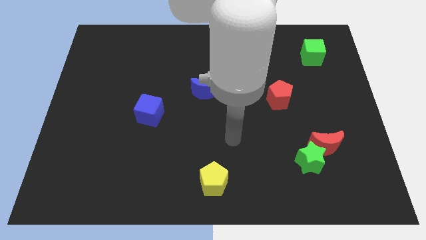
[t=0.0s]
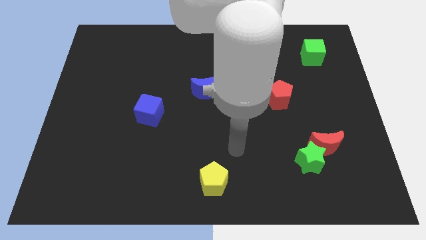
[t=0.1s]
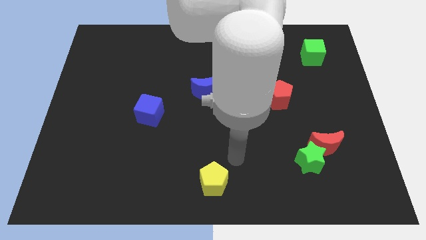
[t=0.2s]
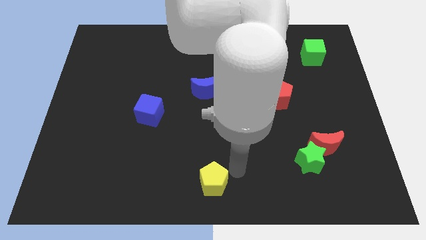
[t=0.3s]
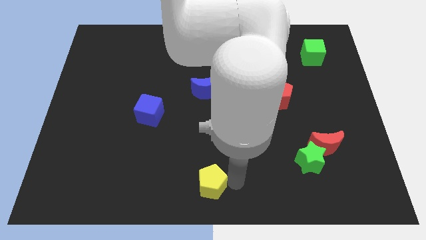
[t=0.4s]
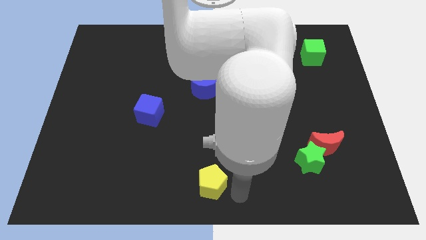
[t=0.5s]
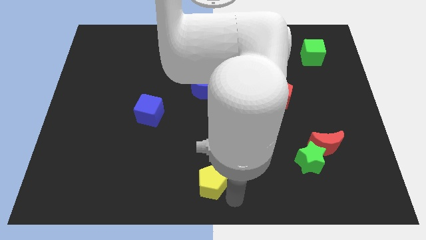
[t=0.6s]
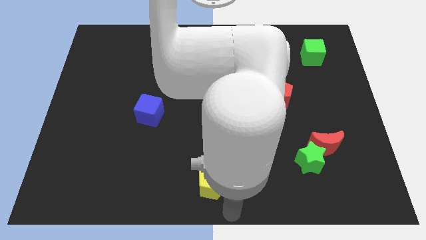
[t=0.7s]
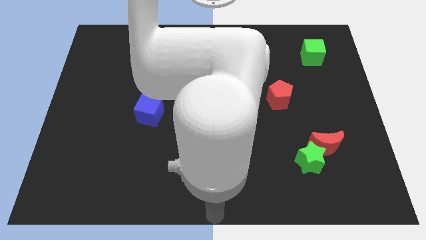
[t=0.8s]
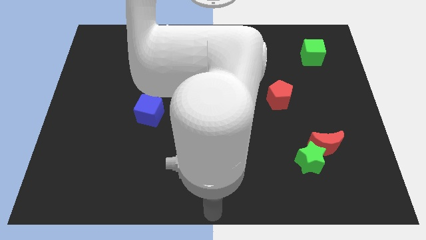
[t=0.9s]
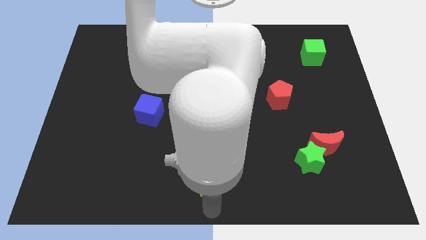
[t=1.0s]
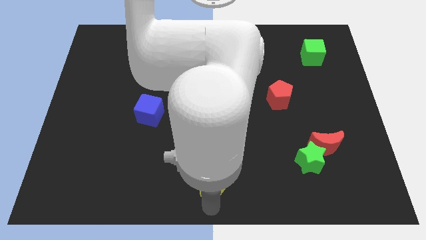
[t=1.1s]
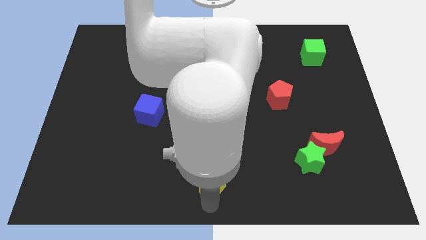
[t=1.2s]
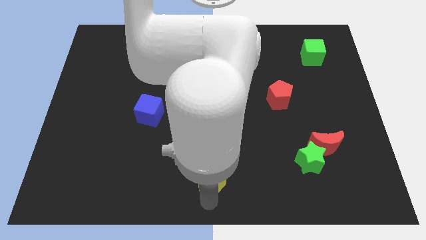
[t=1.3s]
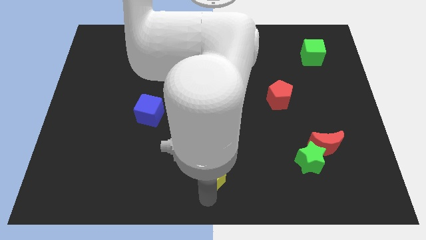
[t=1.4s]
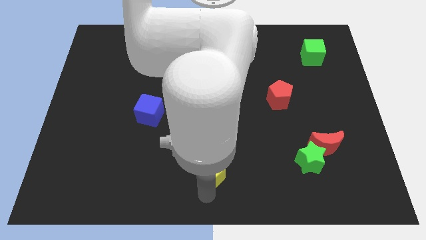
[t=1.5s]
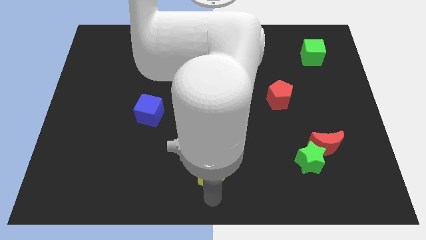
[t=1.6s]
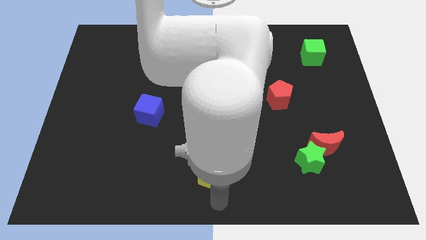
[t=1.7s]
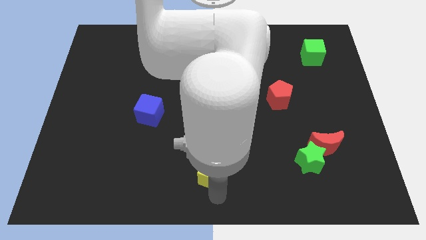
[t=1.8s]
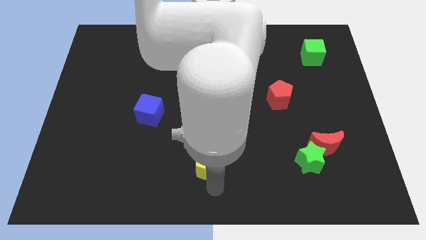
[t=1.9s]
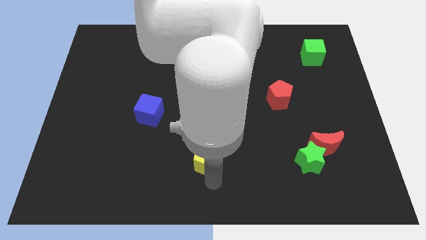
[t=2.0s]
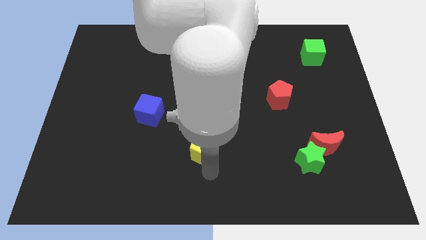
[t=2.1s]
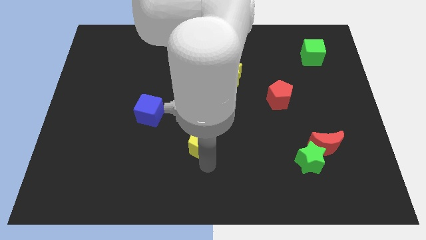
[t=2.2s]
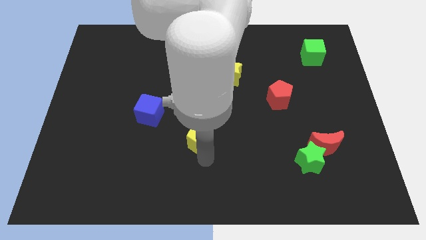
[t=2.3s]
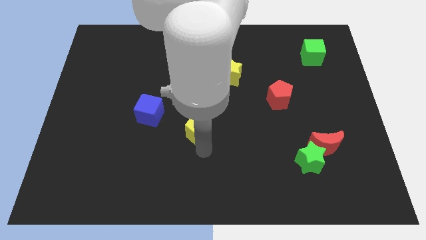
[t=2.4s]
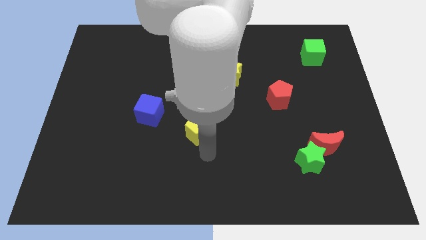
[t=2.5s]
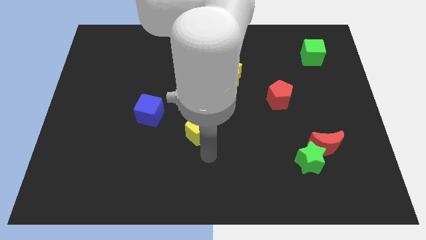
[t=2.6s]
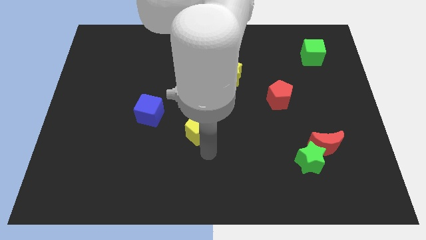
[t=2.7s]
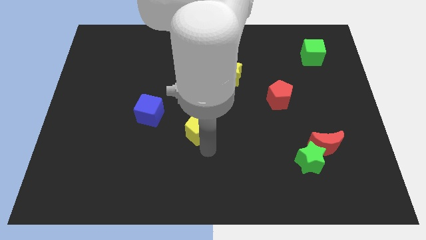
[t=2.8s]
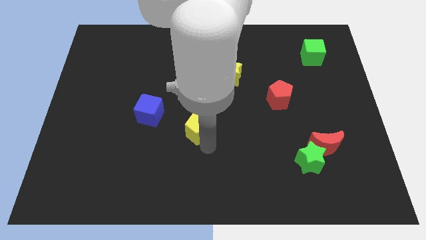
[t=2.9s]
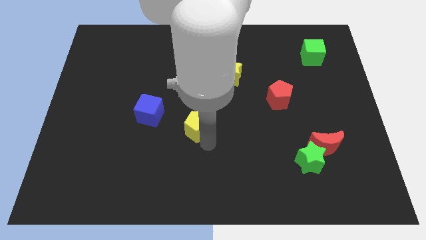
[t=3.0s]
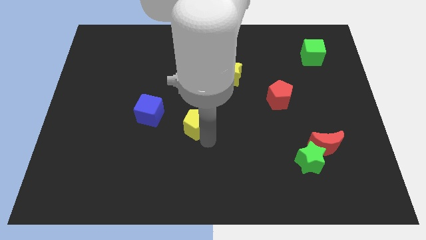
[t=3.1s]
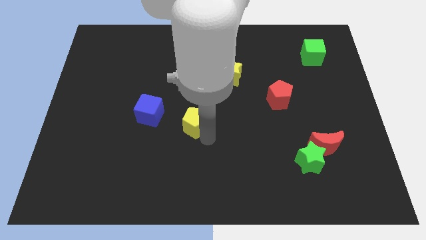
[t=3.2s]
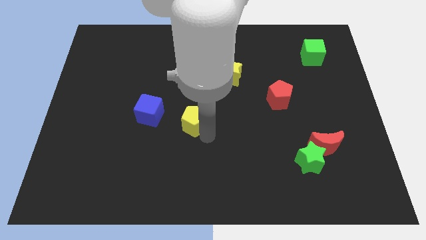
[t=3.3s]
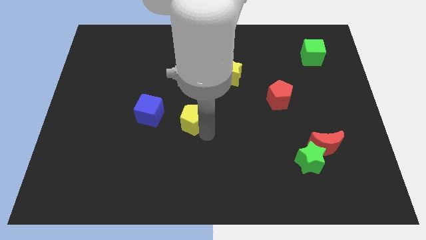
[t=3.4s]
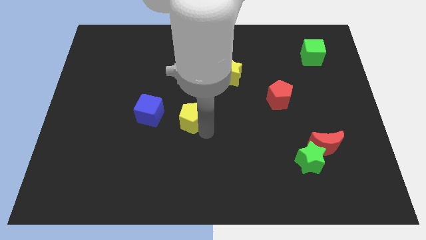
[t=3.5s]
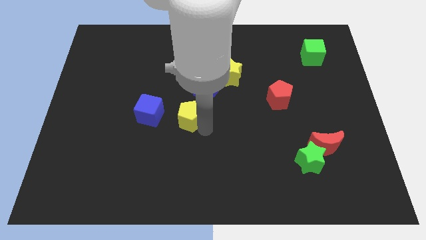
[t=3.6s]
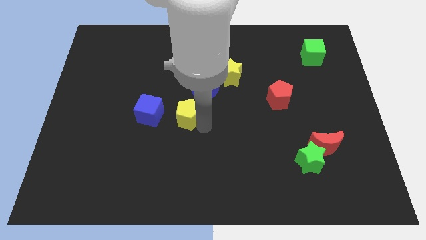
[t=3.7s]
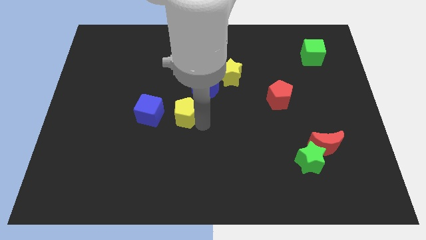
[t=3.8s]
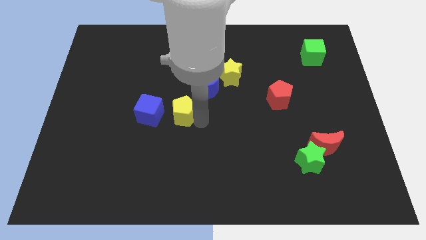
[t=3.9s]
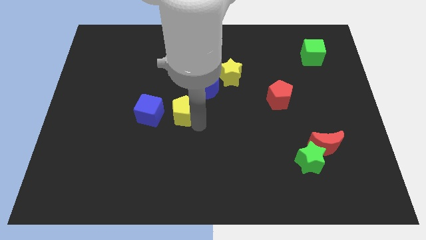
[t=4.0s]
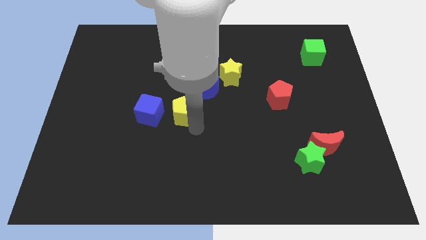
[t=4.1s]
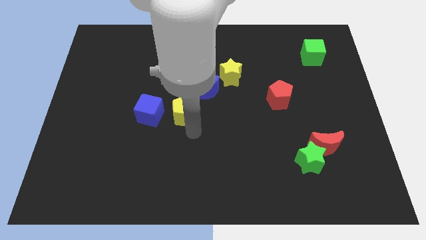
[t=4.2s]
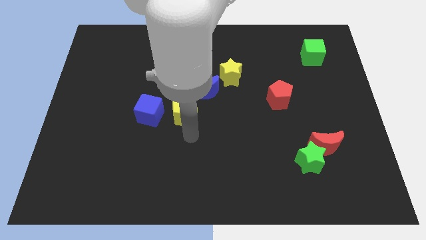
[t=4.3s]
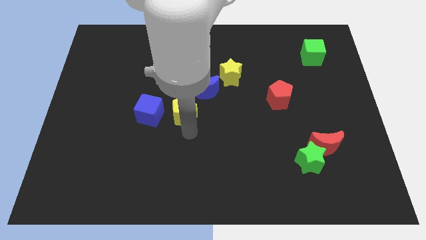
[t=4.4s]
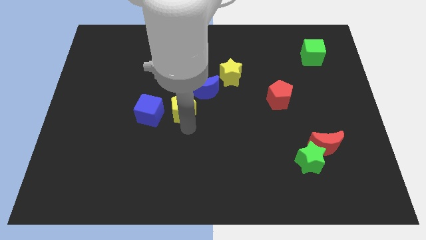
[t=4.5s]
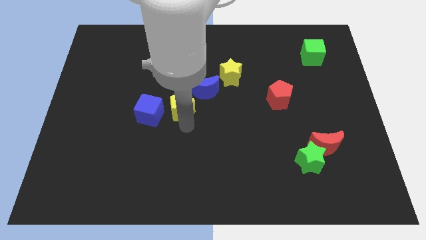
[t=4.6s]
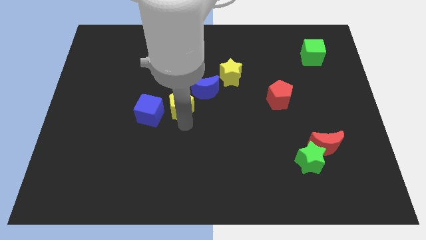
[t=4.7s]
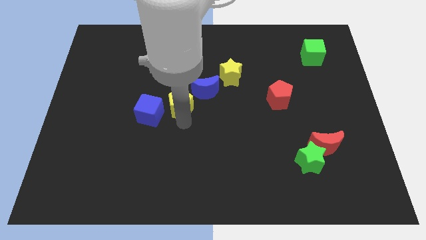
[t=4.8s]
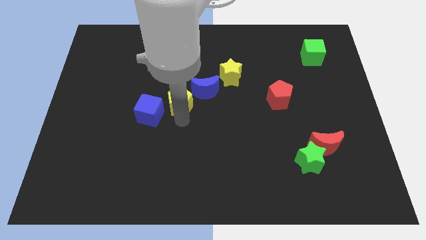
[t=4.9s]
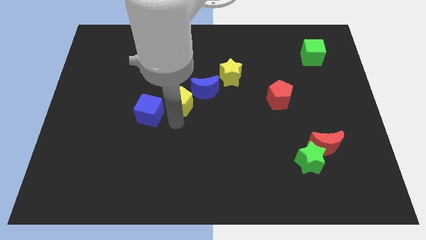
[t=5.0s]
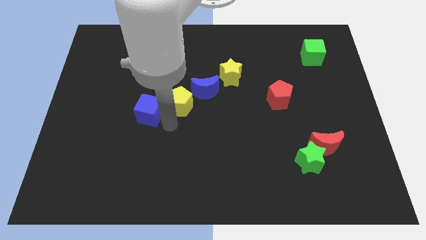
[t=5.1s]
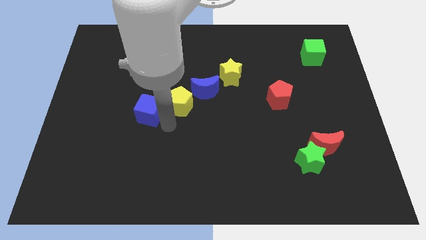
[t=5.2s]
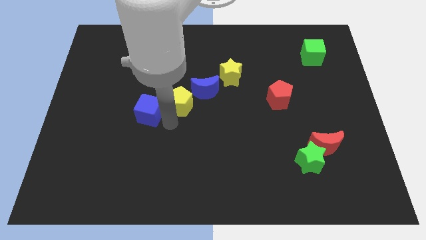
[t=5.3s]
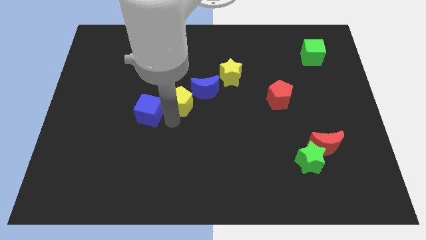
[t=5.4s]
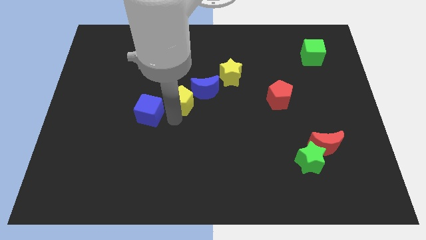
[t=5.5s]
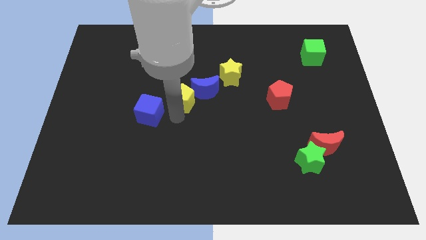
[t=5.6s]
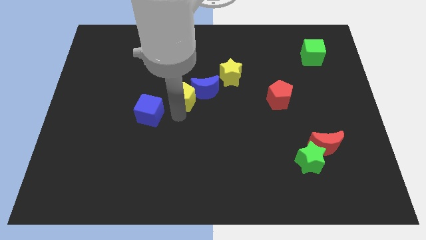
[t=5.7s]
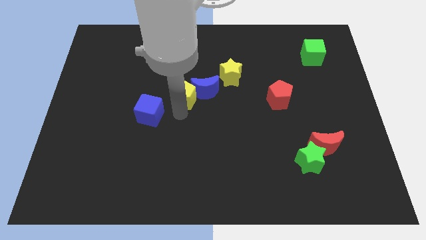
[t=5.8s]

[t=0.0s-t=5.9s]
move the yellow pentagon upwards

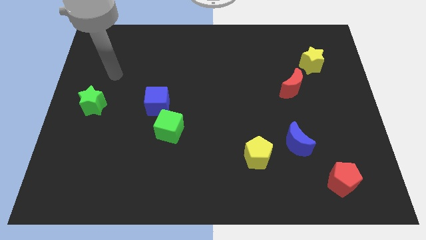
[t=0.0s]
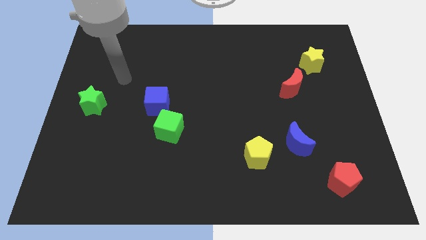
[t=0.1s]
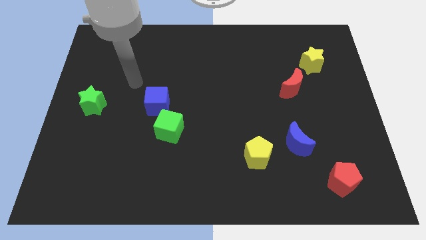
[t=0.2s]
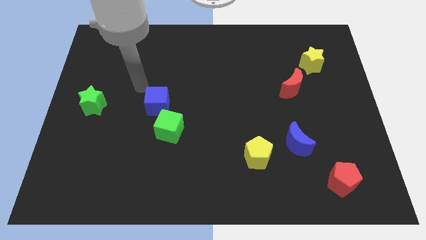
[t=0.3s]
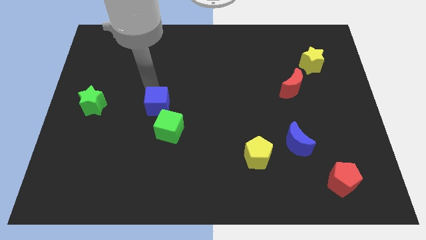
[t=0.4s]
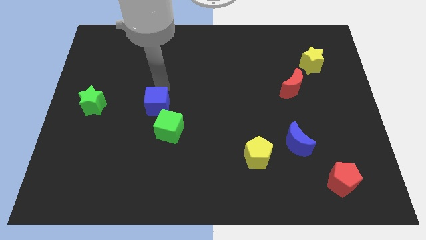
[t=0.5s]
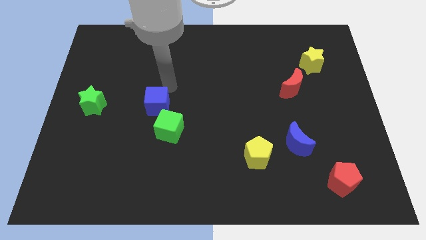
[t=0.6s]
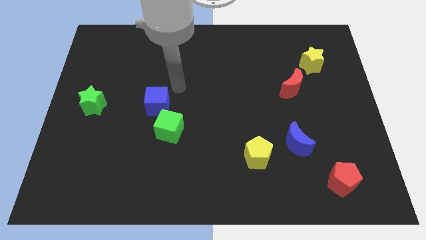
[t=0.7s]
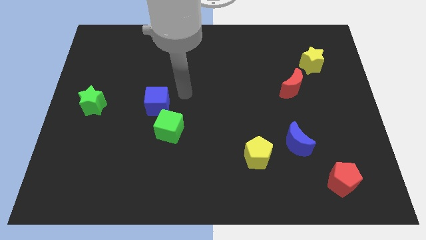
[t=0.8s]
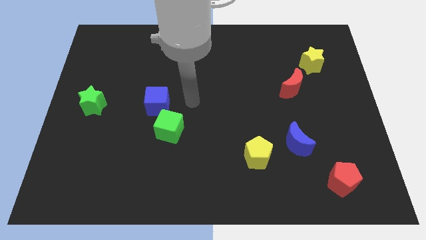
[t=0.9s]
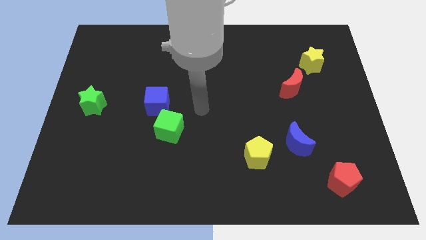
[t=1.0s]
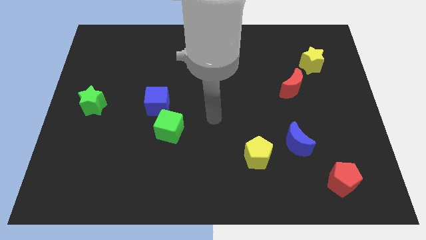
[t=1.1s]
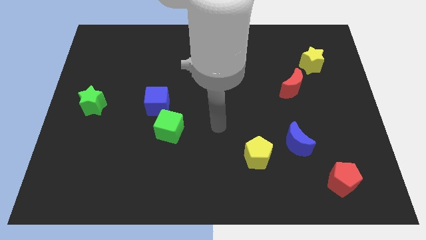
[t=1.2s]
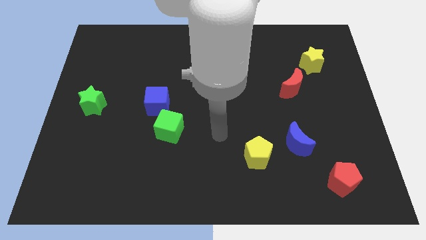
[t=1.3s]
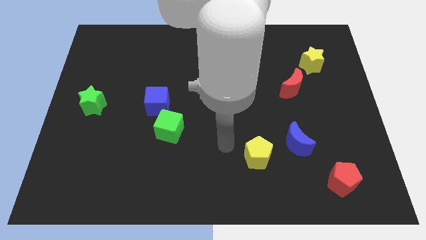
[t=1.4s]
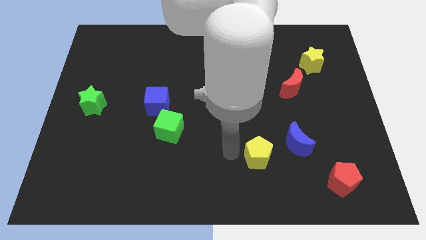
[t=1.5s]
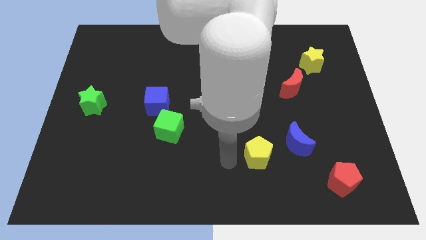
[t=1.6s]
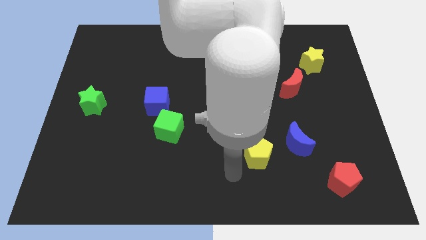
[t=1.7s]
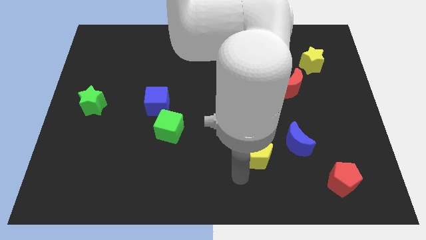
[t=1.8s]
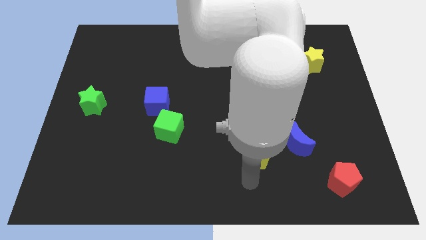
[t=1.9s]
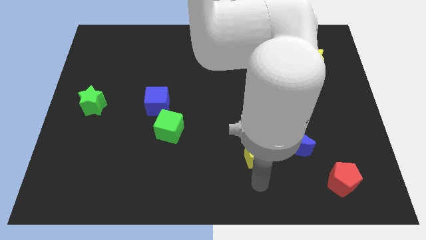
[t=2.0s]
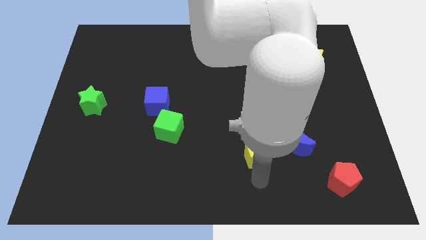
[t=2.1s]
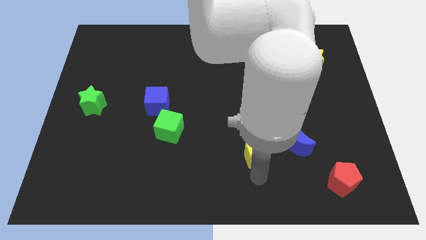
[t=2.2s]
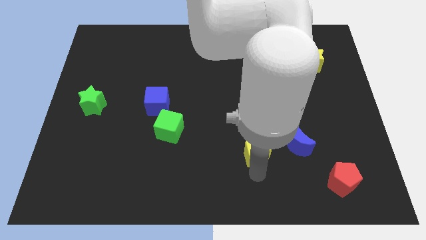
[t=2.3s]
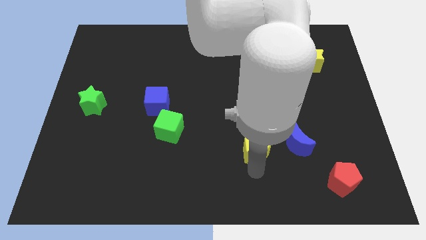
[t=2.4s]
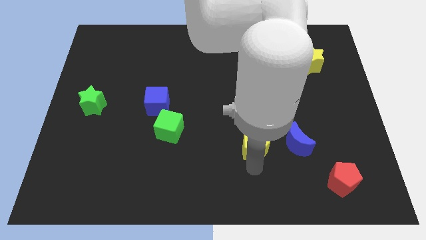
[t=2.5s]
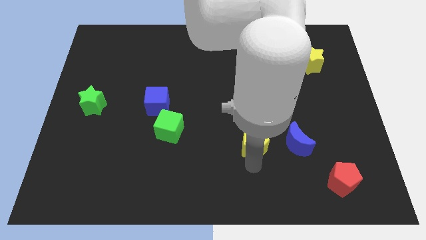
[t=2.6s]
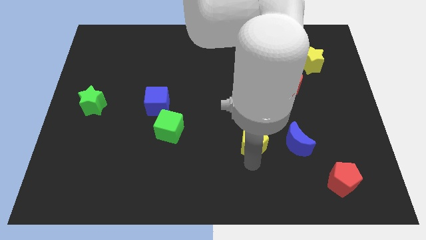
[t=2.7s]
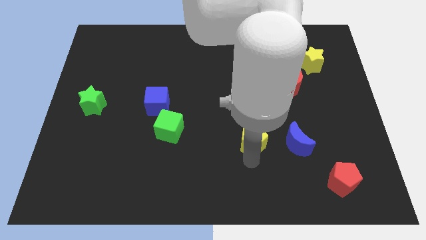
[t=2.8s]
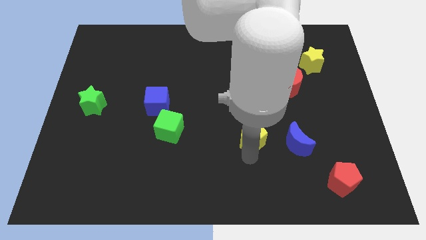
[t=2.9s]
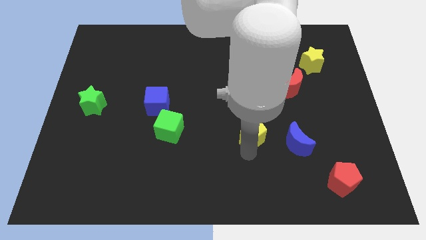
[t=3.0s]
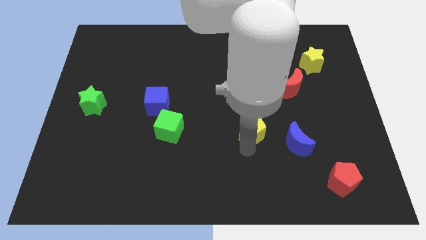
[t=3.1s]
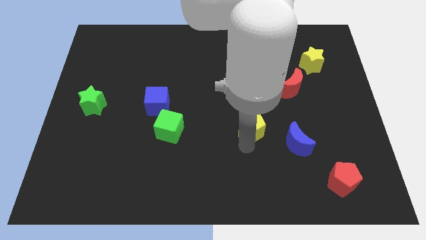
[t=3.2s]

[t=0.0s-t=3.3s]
slide the yellow pentagon a little bit upwards
